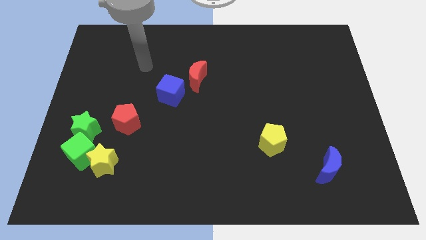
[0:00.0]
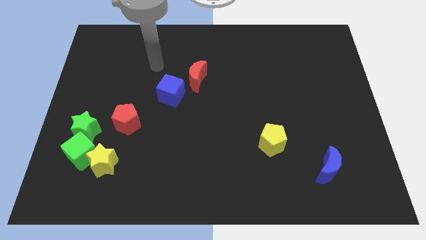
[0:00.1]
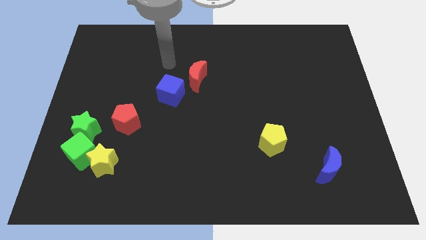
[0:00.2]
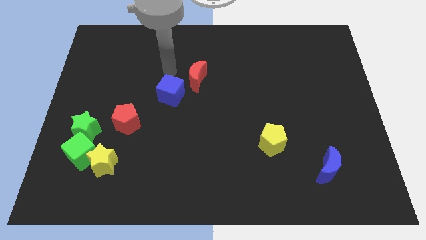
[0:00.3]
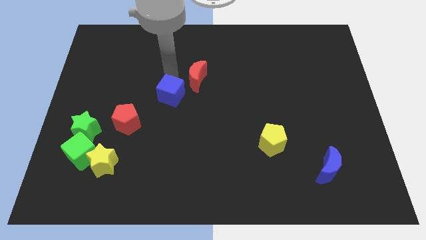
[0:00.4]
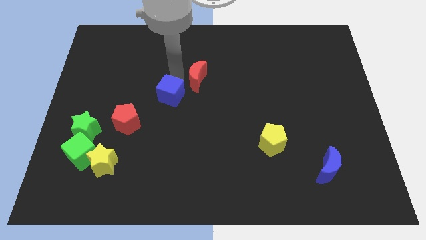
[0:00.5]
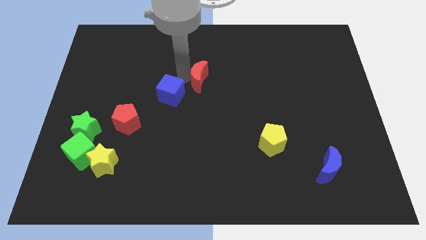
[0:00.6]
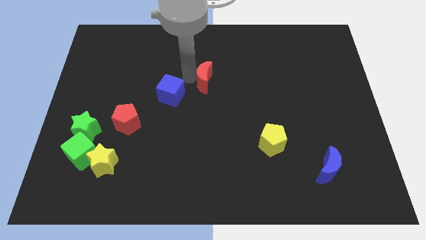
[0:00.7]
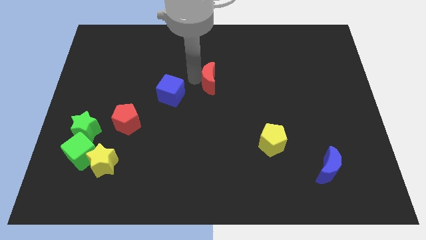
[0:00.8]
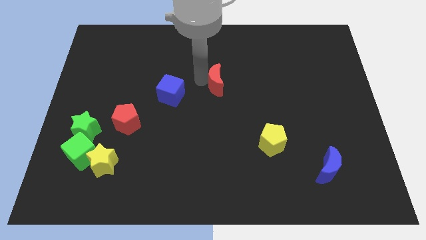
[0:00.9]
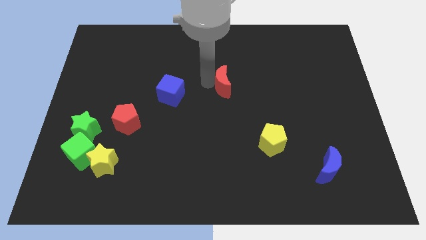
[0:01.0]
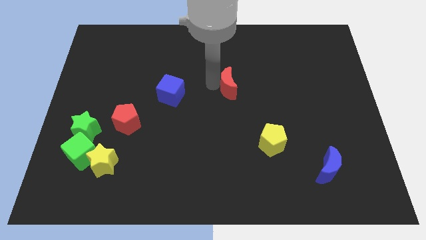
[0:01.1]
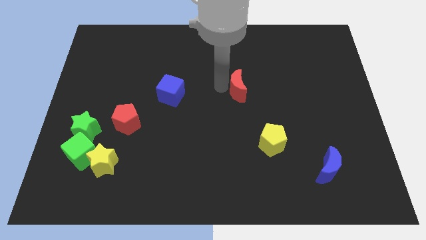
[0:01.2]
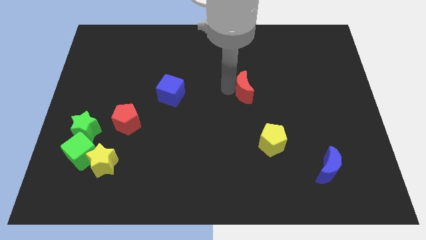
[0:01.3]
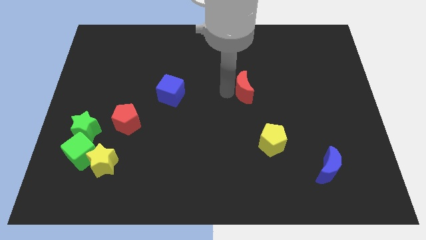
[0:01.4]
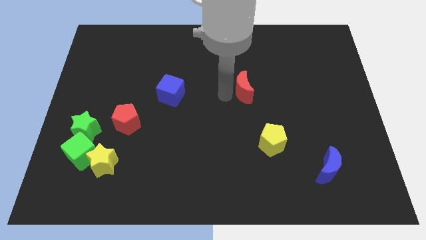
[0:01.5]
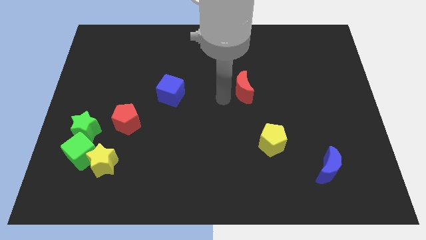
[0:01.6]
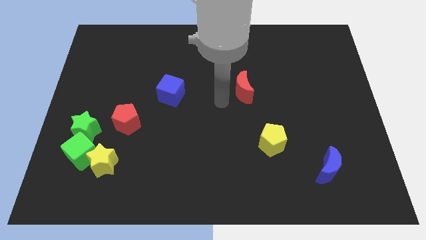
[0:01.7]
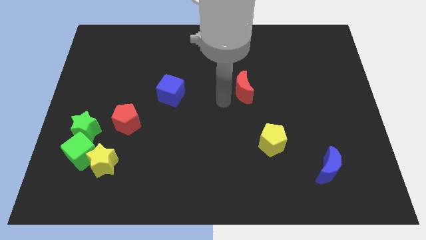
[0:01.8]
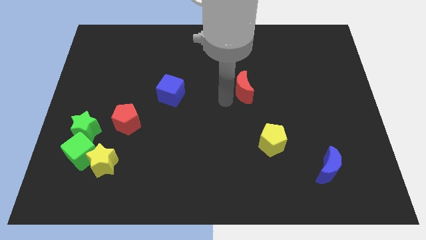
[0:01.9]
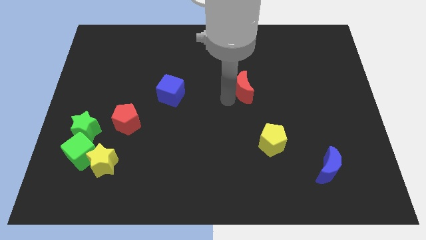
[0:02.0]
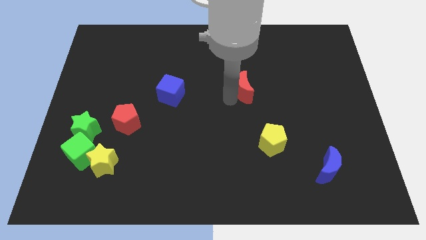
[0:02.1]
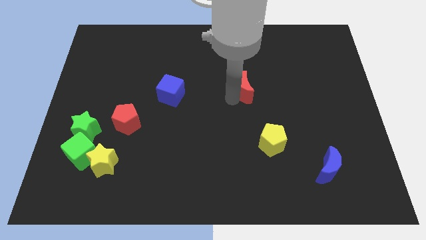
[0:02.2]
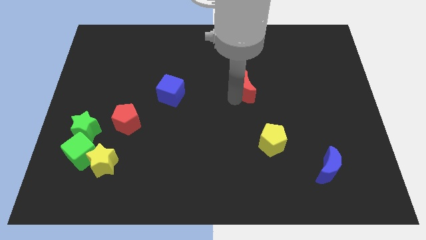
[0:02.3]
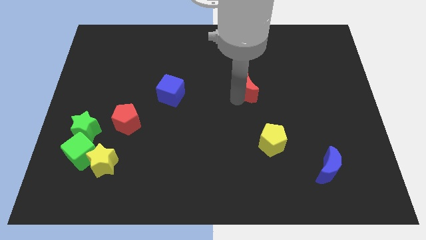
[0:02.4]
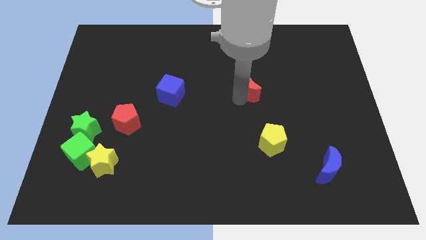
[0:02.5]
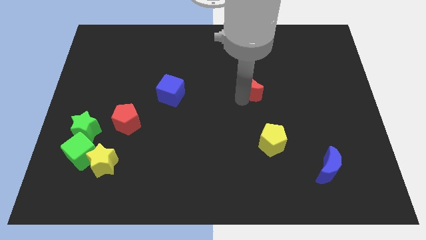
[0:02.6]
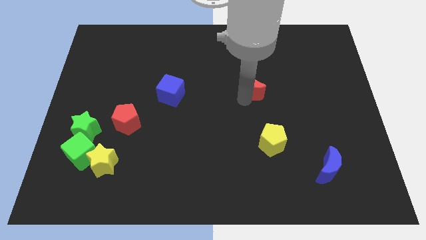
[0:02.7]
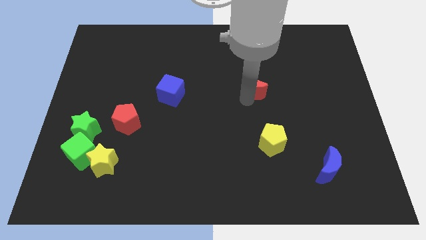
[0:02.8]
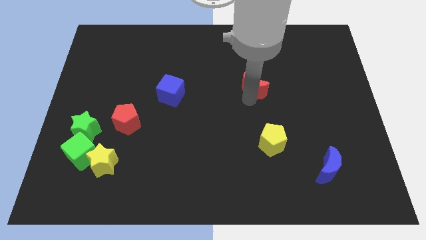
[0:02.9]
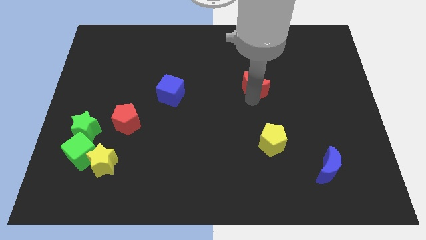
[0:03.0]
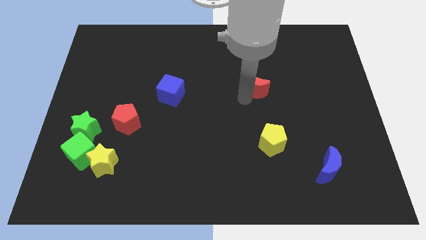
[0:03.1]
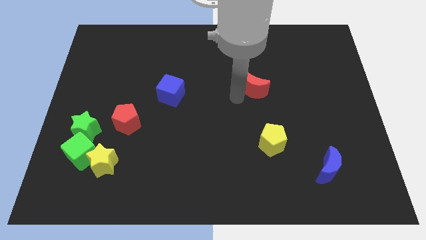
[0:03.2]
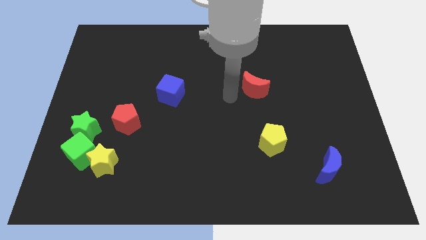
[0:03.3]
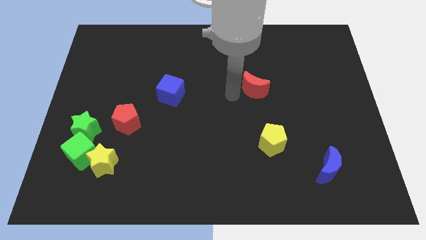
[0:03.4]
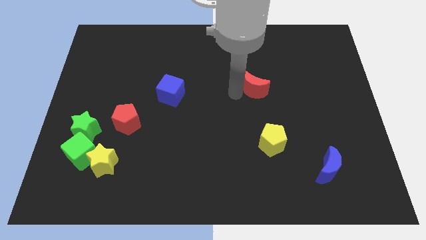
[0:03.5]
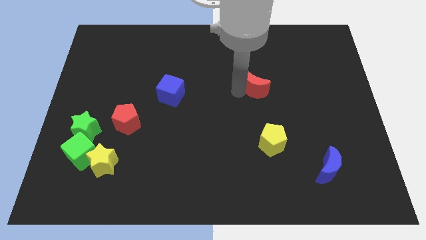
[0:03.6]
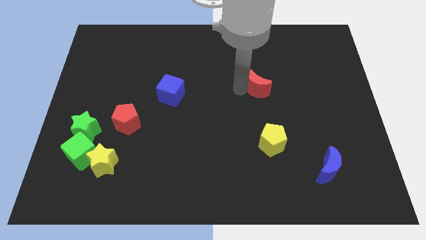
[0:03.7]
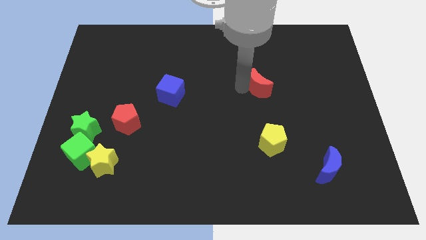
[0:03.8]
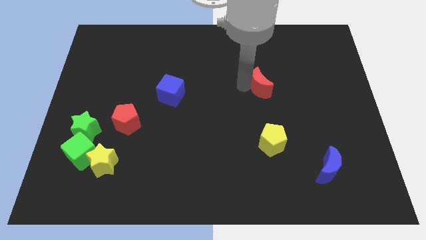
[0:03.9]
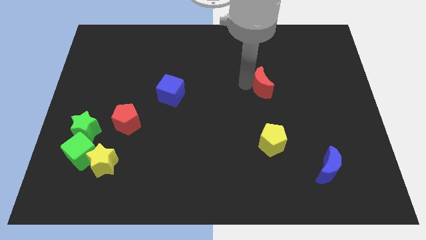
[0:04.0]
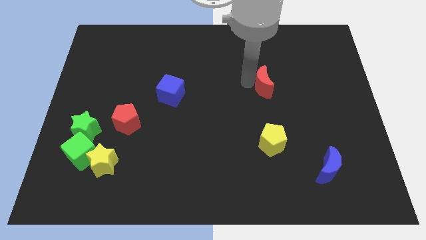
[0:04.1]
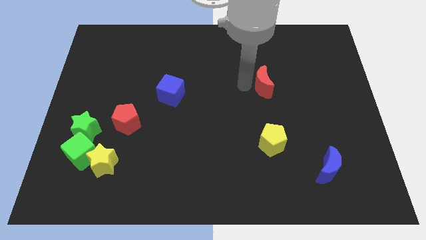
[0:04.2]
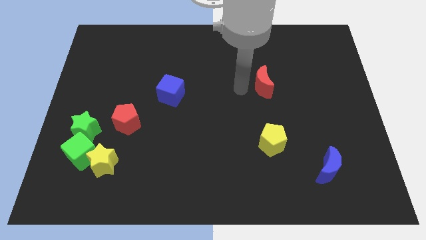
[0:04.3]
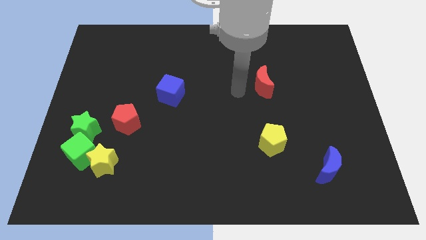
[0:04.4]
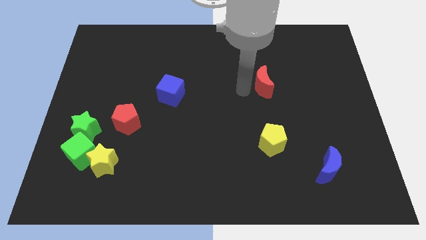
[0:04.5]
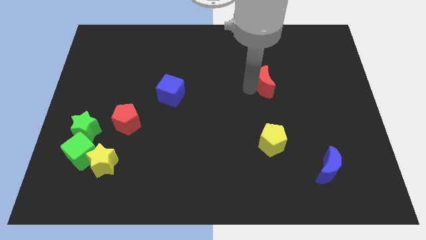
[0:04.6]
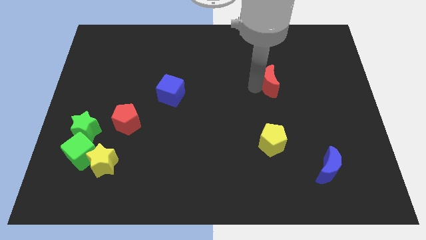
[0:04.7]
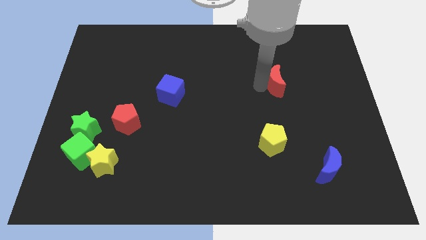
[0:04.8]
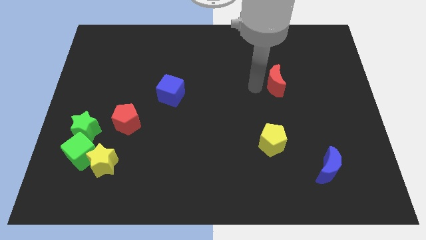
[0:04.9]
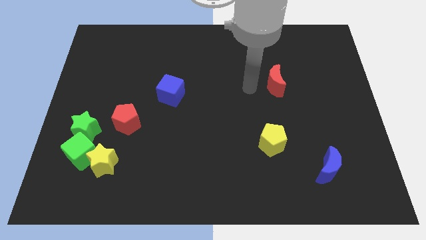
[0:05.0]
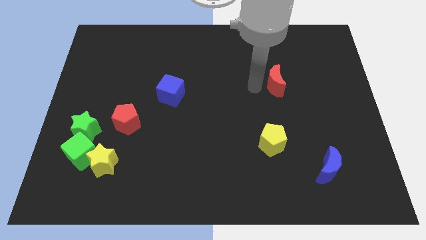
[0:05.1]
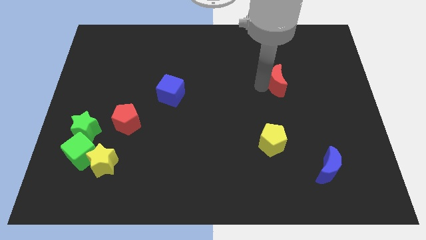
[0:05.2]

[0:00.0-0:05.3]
move the red moon to the right

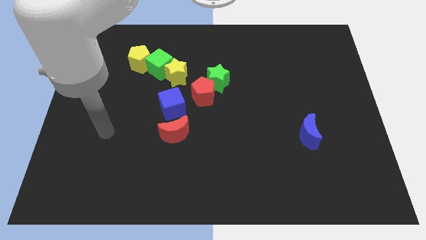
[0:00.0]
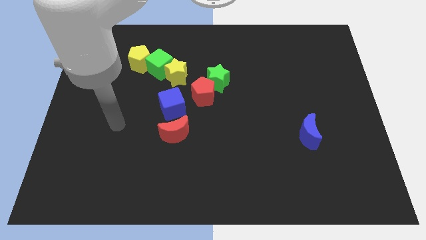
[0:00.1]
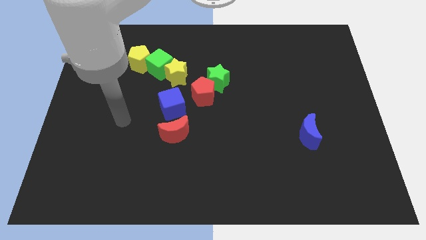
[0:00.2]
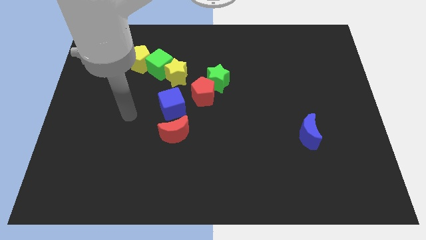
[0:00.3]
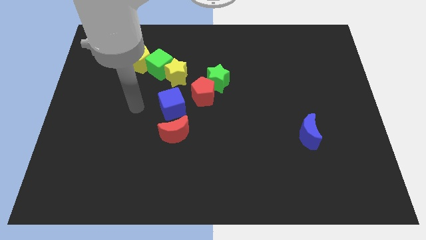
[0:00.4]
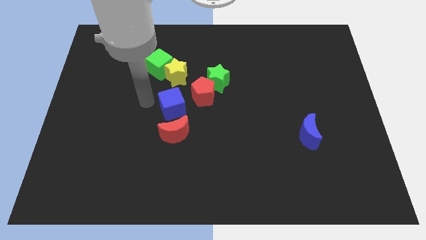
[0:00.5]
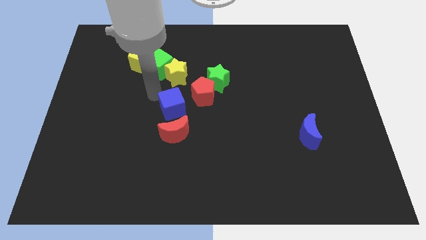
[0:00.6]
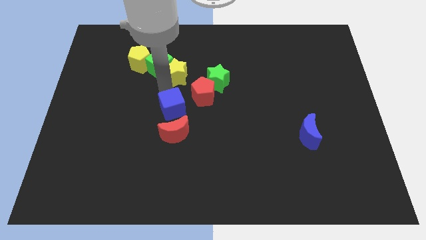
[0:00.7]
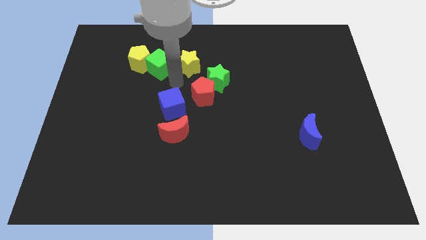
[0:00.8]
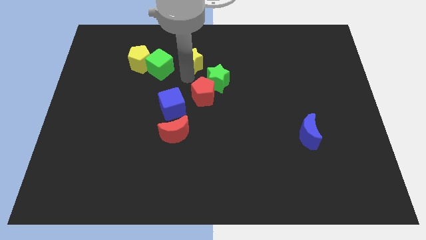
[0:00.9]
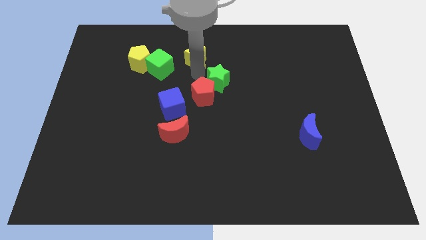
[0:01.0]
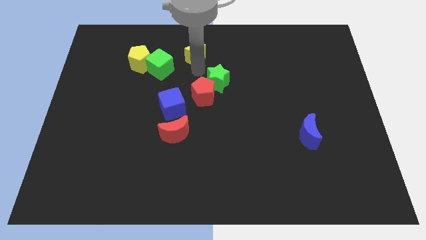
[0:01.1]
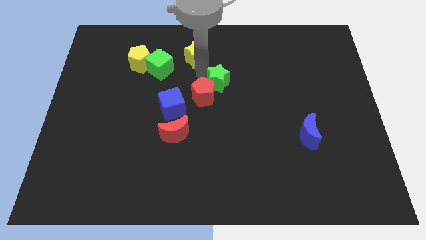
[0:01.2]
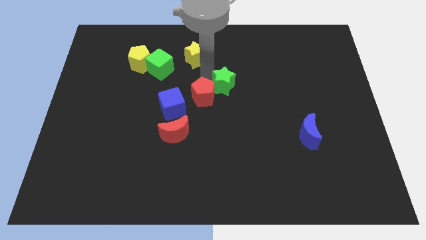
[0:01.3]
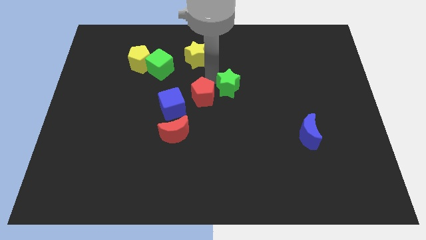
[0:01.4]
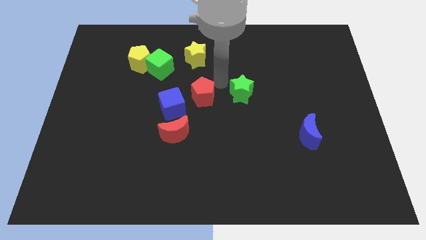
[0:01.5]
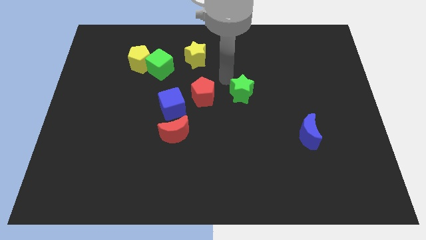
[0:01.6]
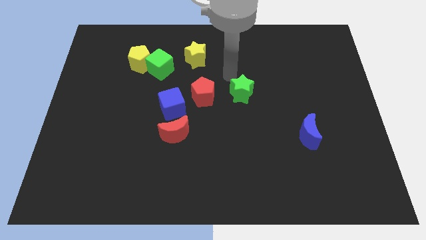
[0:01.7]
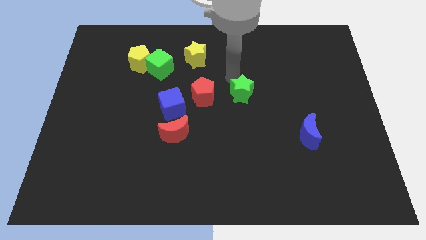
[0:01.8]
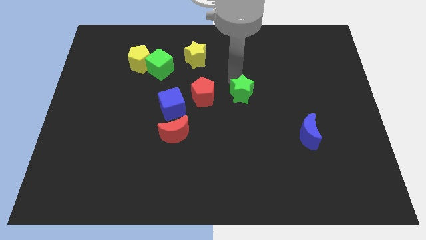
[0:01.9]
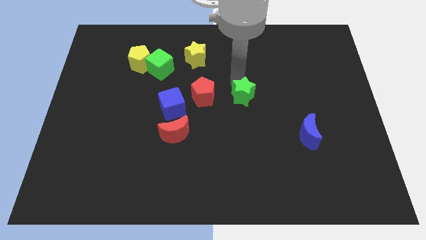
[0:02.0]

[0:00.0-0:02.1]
move the green star a bit down and right diagonally

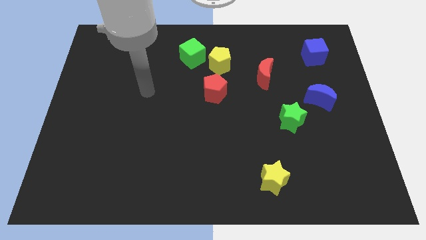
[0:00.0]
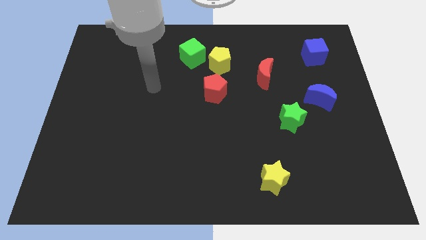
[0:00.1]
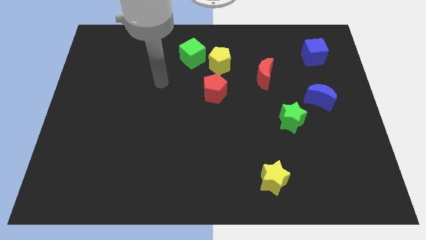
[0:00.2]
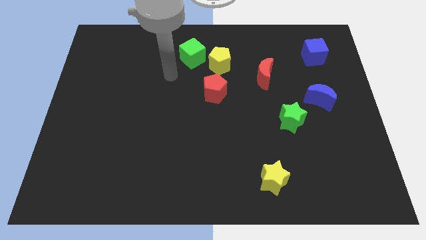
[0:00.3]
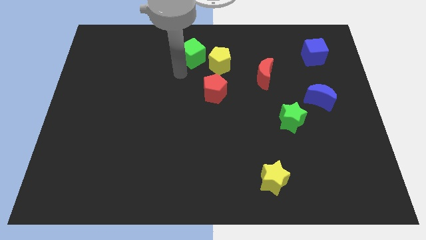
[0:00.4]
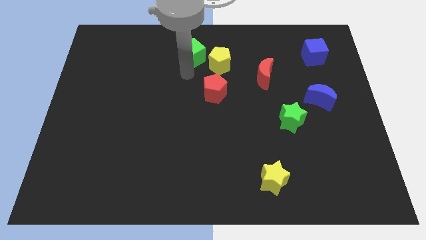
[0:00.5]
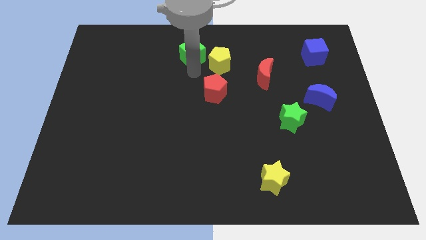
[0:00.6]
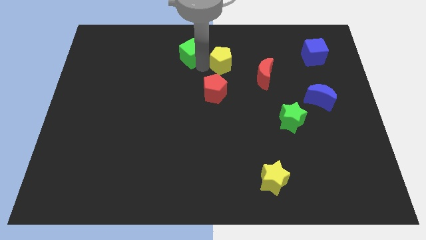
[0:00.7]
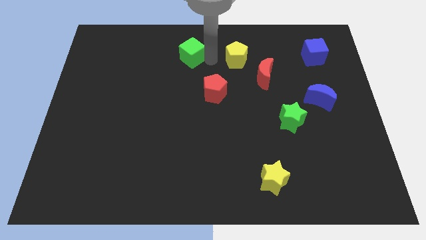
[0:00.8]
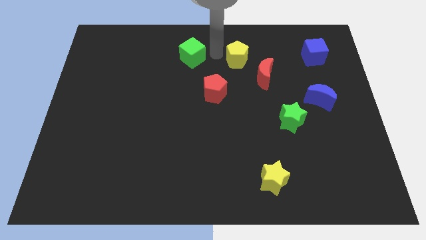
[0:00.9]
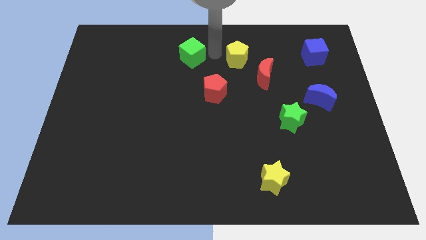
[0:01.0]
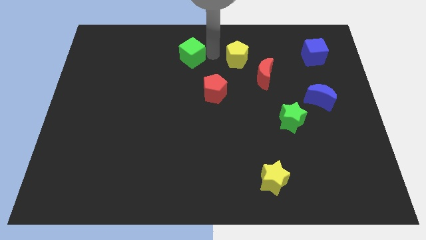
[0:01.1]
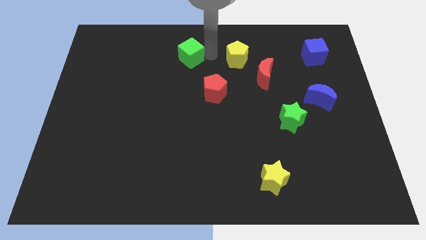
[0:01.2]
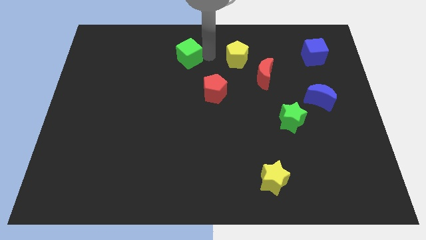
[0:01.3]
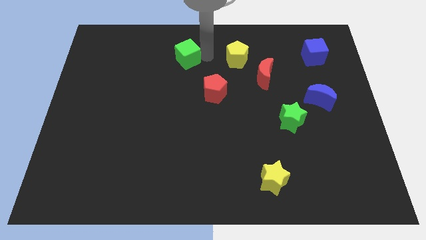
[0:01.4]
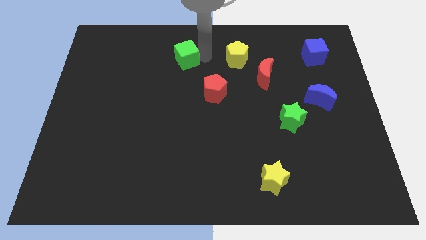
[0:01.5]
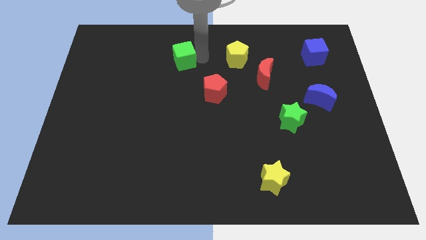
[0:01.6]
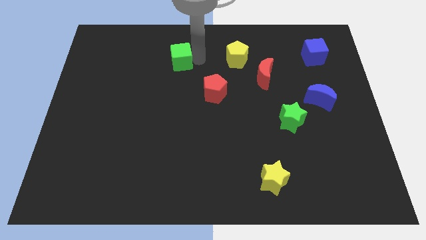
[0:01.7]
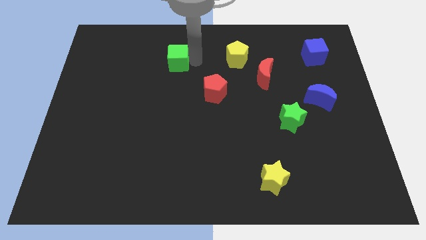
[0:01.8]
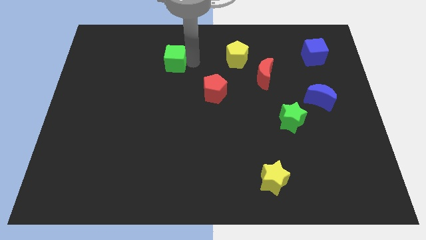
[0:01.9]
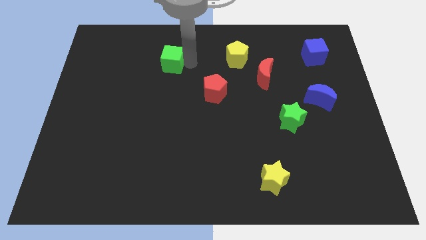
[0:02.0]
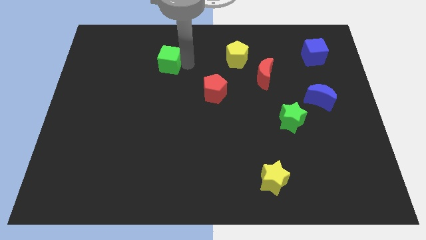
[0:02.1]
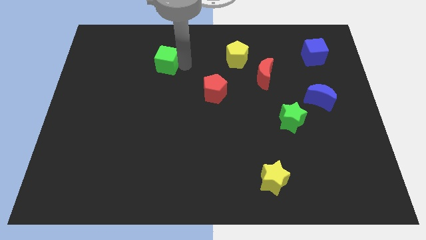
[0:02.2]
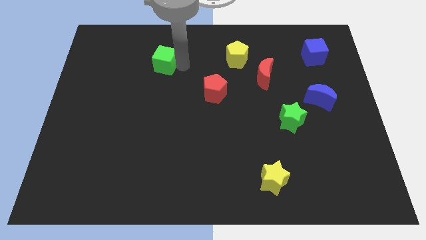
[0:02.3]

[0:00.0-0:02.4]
push the green cube a little bit left
